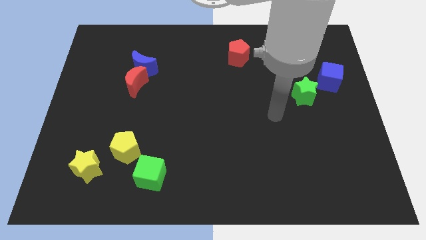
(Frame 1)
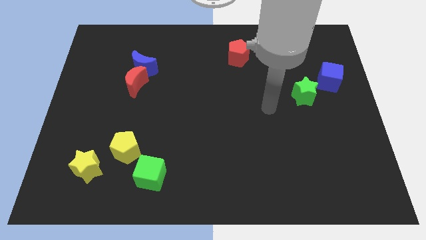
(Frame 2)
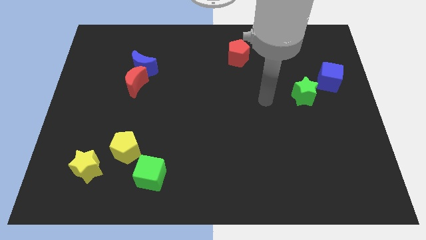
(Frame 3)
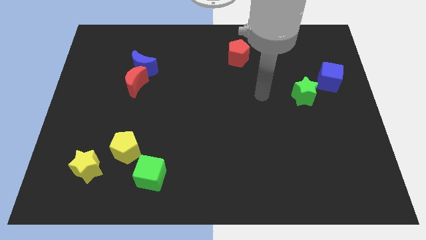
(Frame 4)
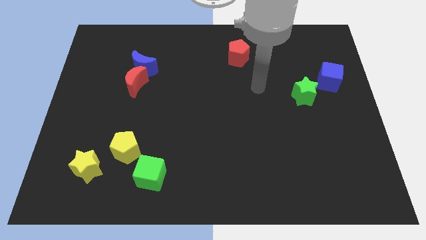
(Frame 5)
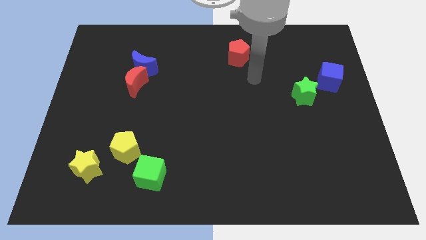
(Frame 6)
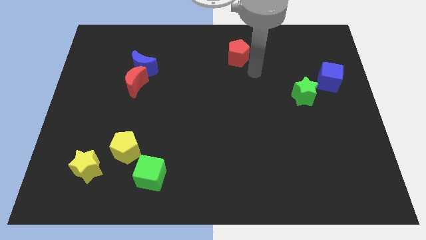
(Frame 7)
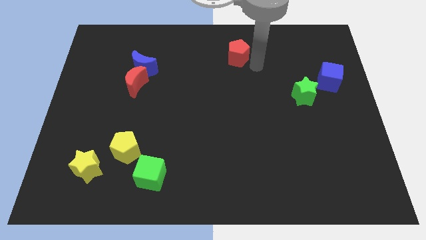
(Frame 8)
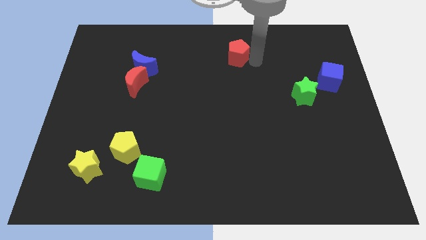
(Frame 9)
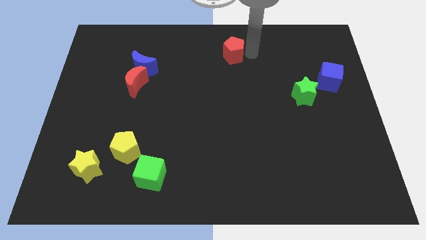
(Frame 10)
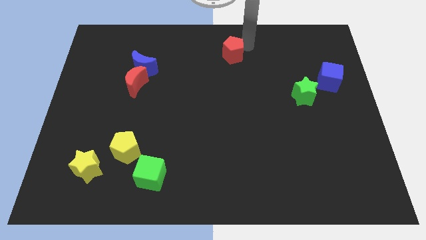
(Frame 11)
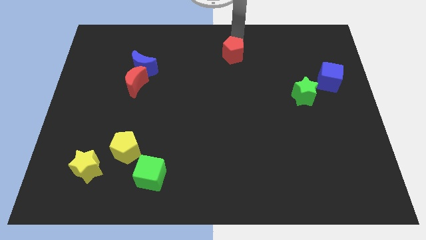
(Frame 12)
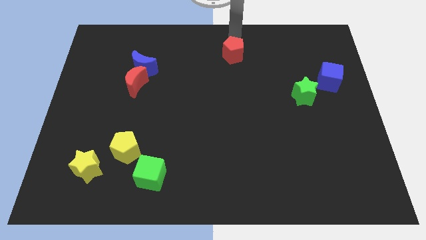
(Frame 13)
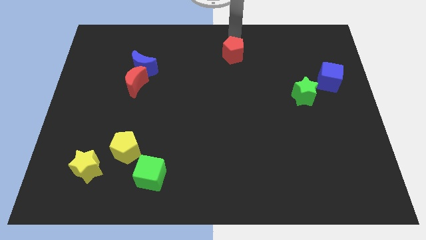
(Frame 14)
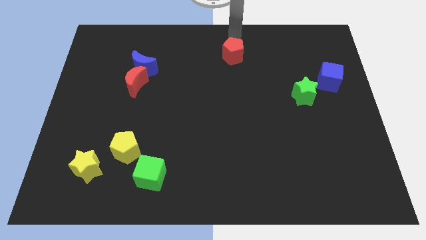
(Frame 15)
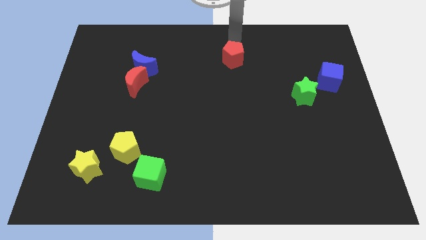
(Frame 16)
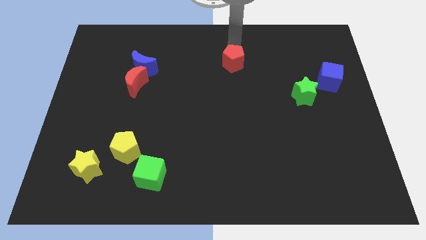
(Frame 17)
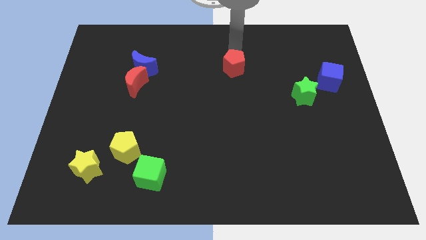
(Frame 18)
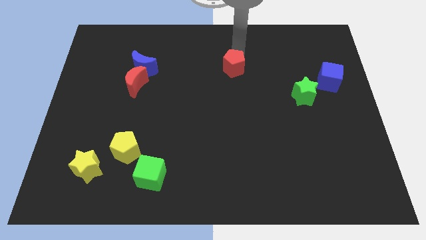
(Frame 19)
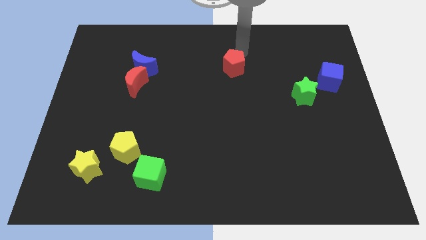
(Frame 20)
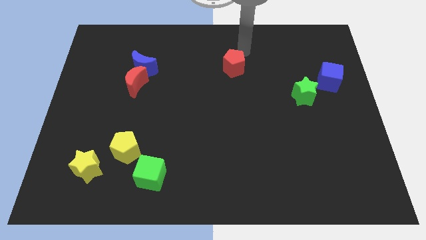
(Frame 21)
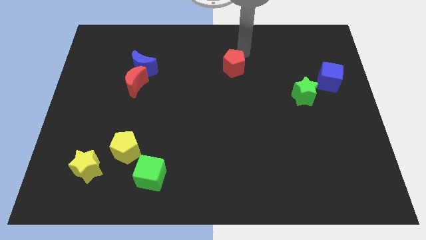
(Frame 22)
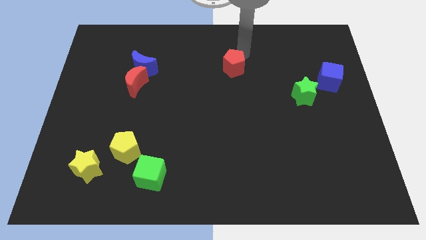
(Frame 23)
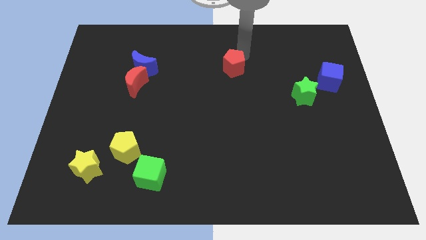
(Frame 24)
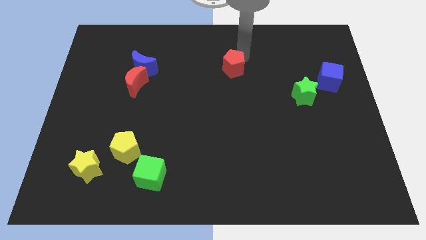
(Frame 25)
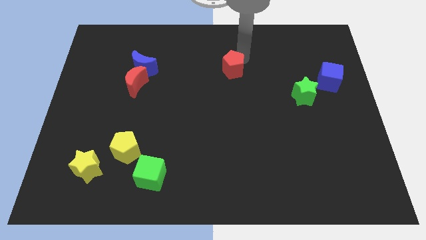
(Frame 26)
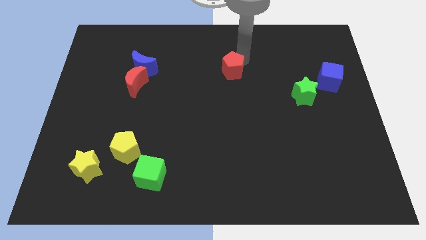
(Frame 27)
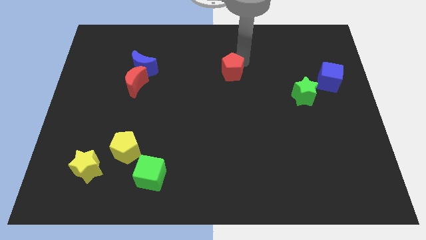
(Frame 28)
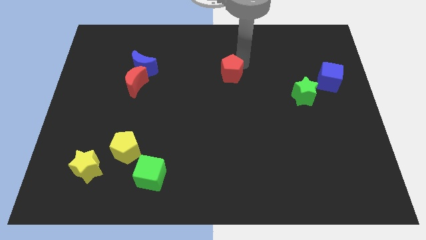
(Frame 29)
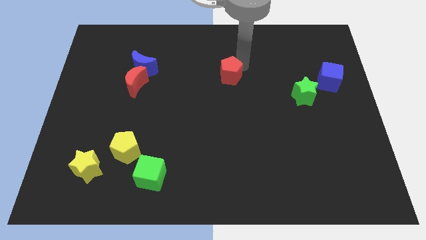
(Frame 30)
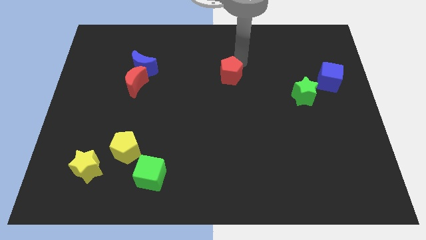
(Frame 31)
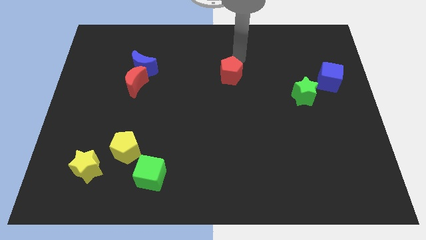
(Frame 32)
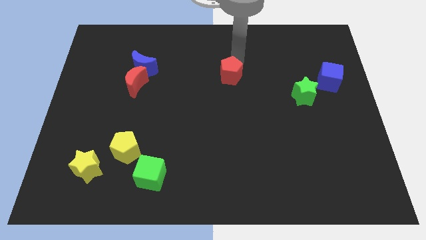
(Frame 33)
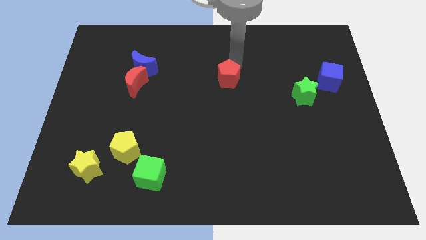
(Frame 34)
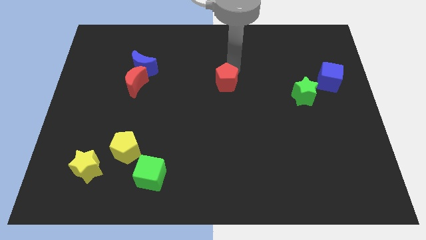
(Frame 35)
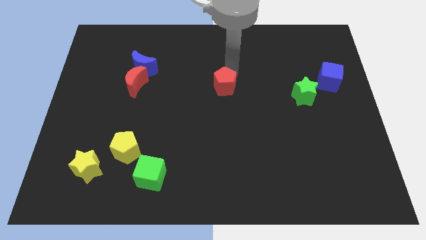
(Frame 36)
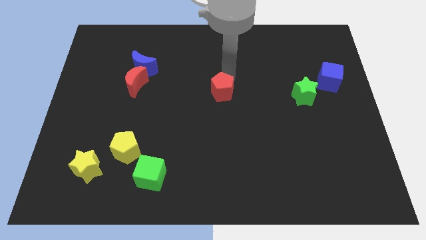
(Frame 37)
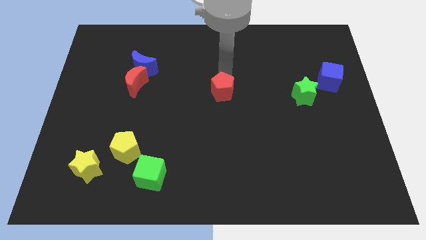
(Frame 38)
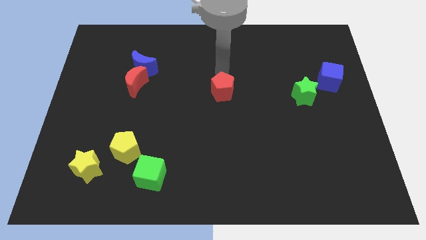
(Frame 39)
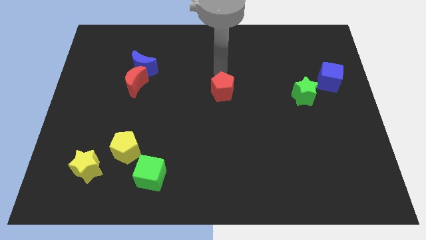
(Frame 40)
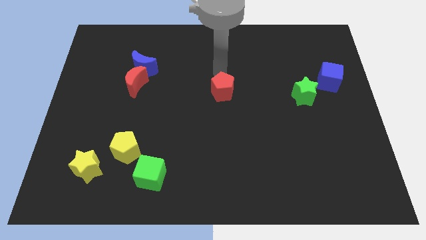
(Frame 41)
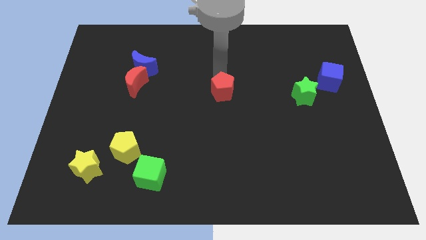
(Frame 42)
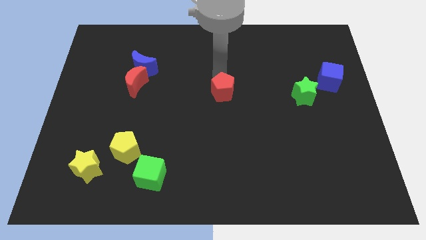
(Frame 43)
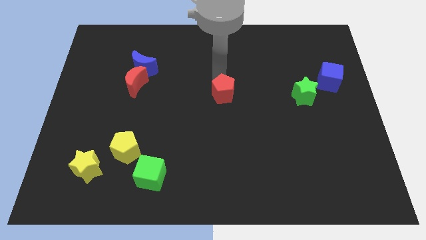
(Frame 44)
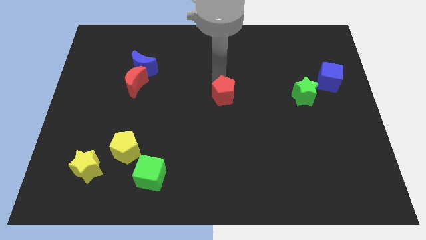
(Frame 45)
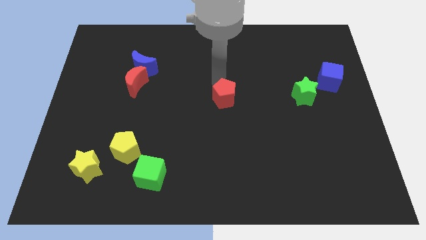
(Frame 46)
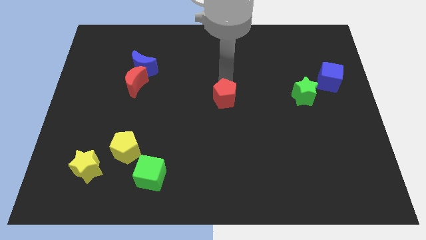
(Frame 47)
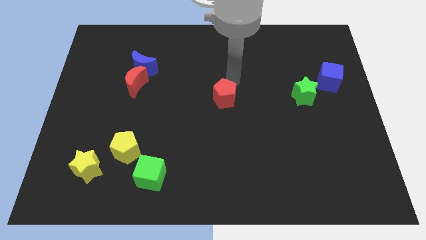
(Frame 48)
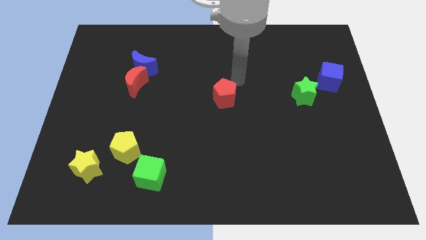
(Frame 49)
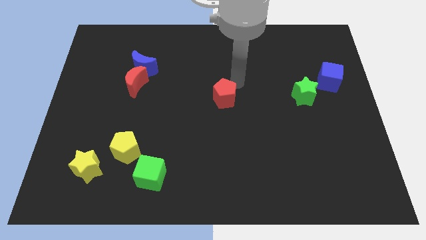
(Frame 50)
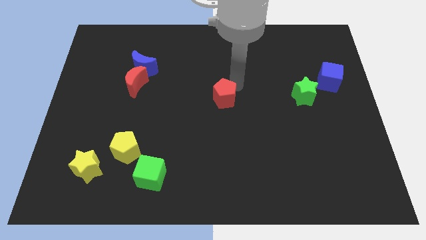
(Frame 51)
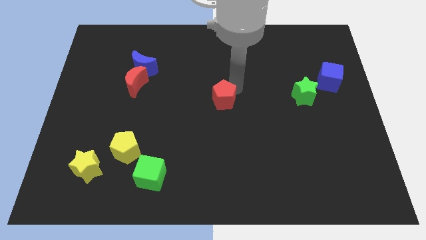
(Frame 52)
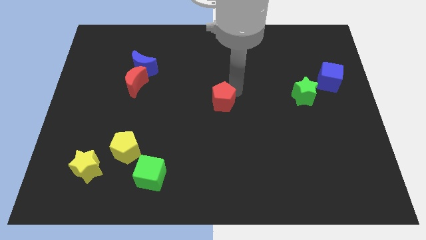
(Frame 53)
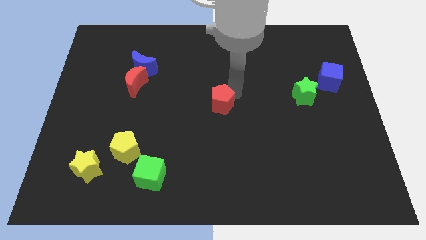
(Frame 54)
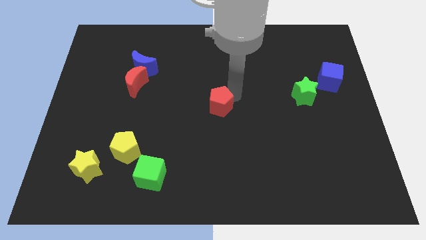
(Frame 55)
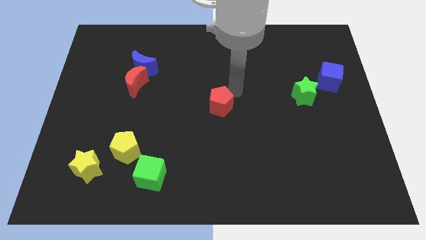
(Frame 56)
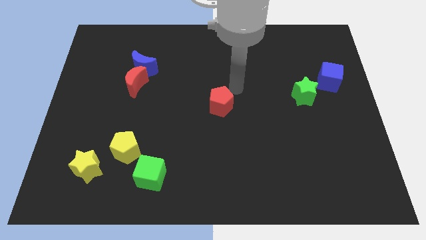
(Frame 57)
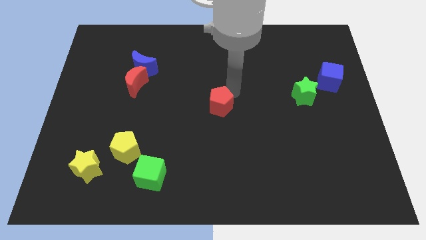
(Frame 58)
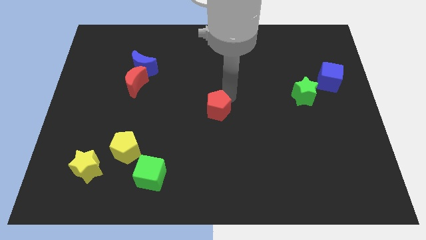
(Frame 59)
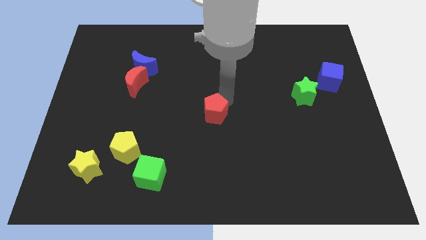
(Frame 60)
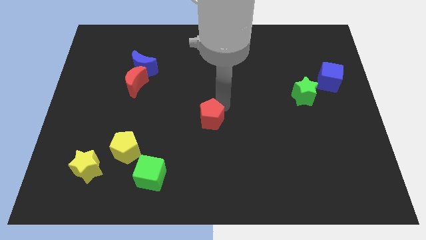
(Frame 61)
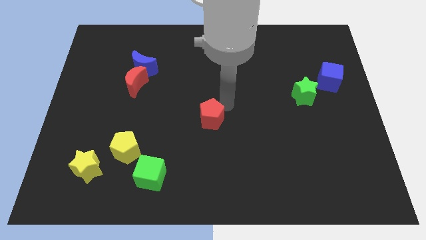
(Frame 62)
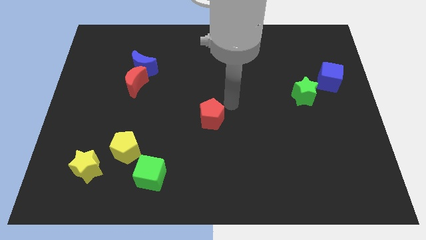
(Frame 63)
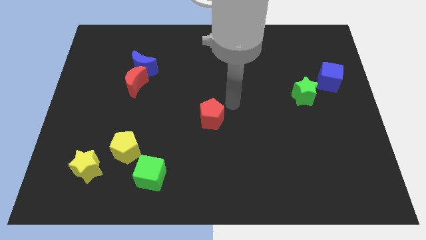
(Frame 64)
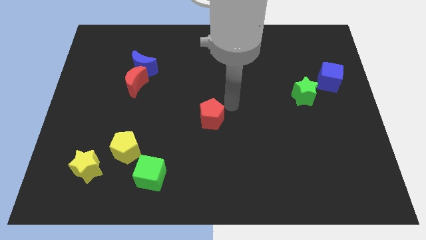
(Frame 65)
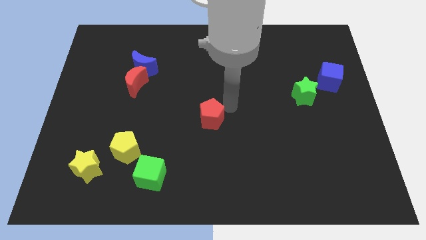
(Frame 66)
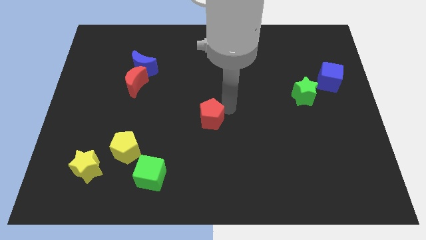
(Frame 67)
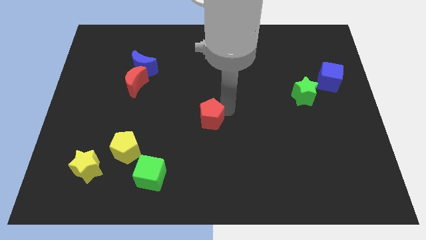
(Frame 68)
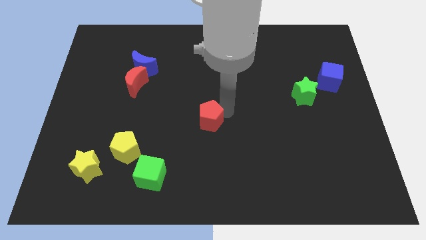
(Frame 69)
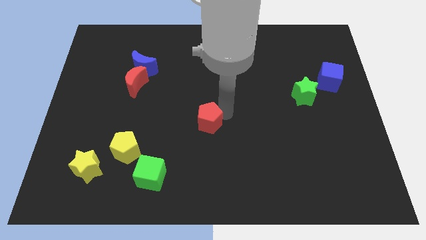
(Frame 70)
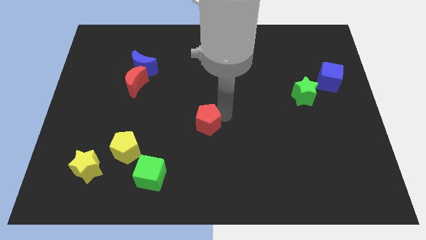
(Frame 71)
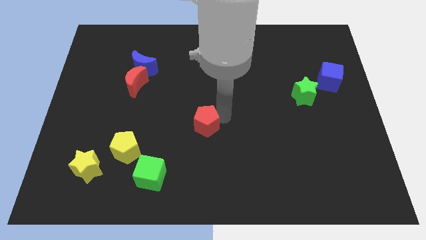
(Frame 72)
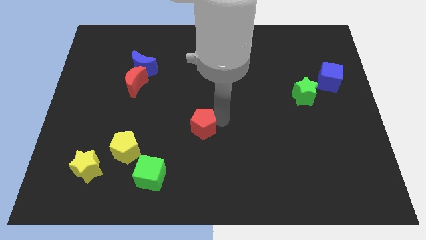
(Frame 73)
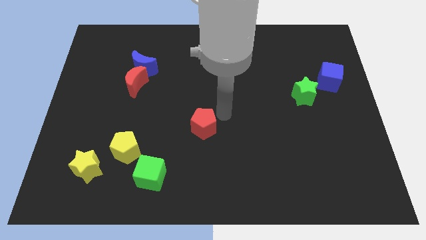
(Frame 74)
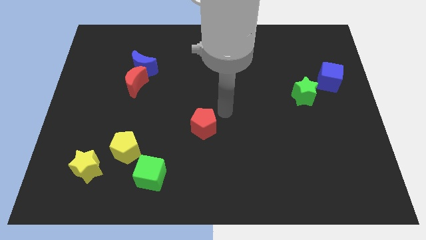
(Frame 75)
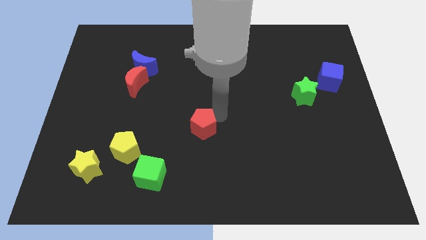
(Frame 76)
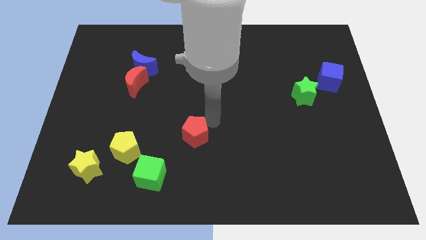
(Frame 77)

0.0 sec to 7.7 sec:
move the red pentagon to the right side of the yellow pentagon
